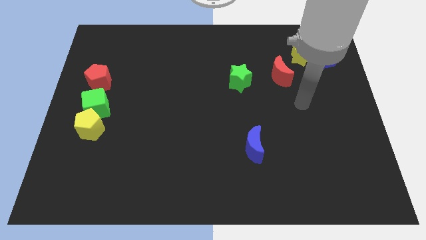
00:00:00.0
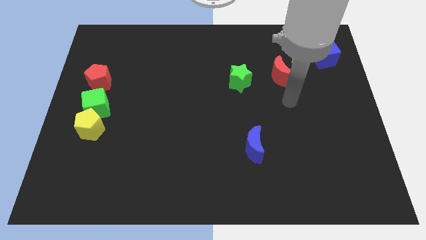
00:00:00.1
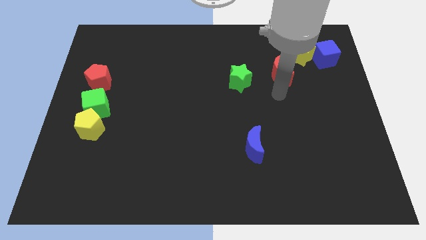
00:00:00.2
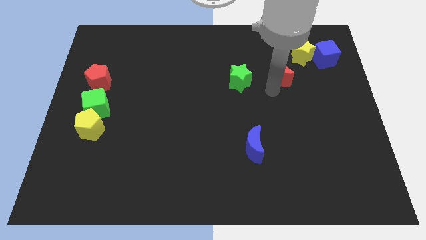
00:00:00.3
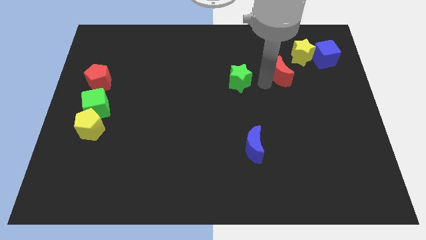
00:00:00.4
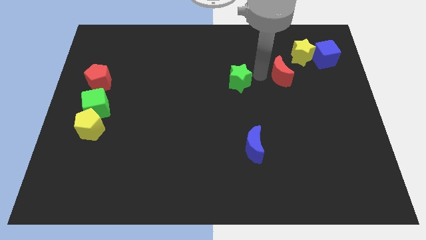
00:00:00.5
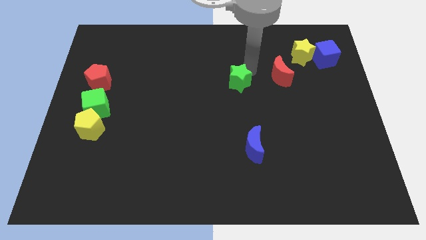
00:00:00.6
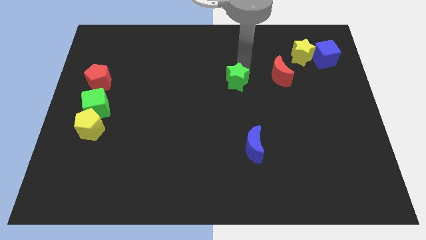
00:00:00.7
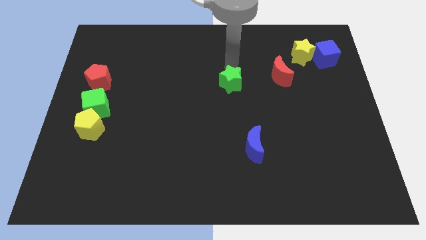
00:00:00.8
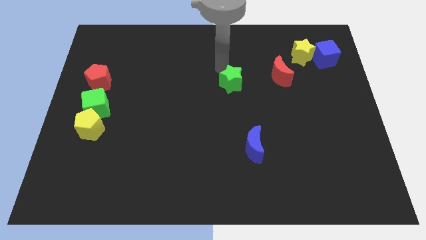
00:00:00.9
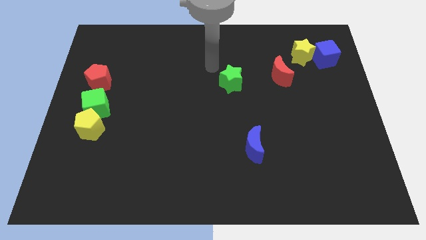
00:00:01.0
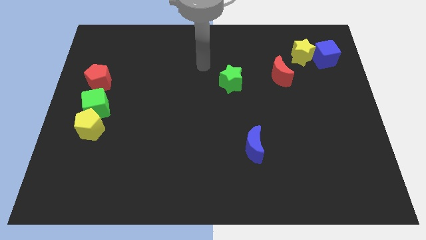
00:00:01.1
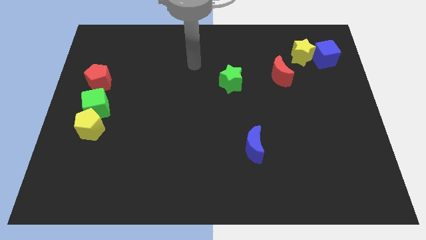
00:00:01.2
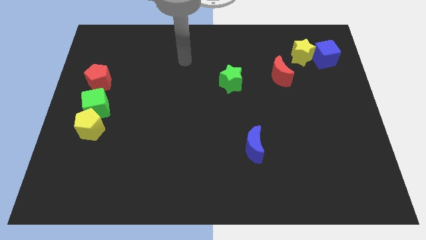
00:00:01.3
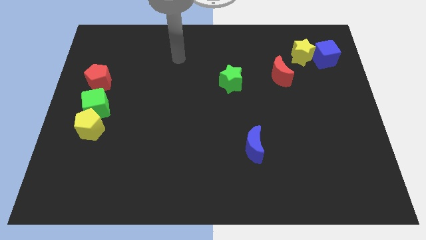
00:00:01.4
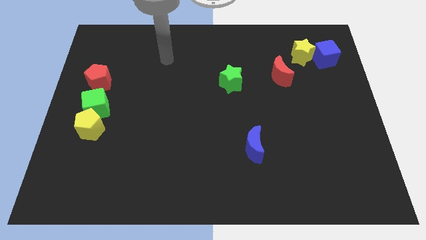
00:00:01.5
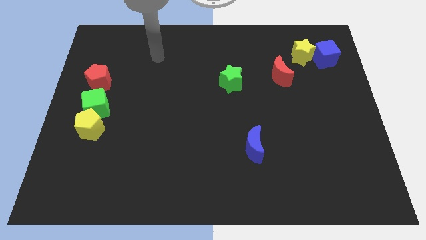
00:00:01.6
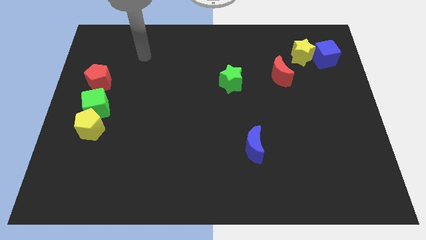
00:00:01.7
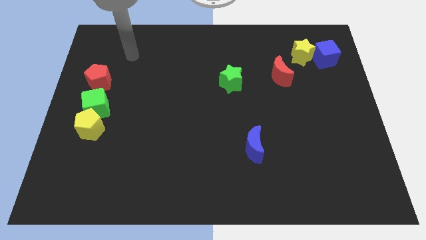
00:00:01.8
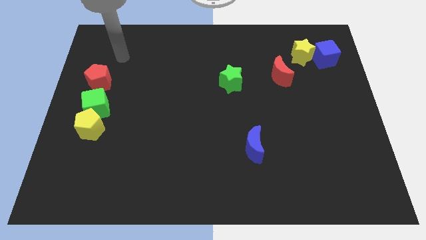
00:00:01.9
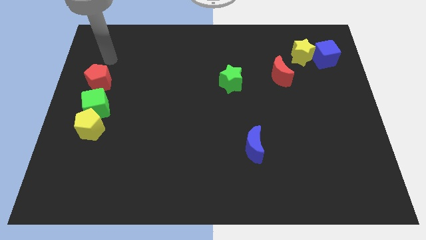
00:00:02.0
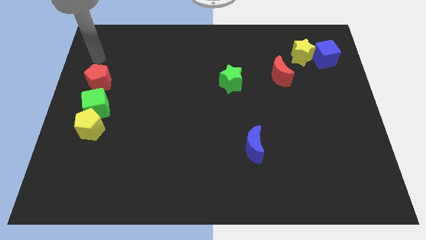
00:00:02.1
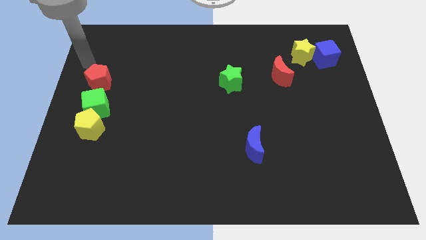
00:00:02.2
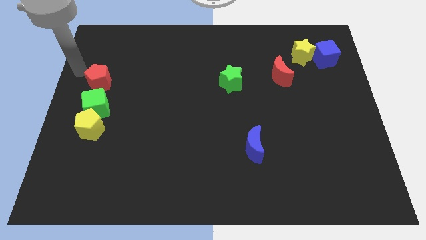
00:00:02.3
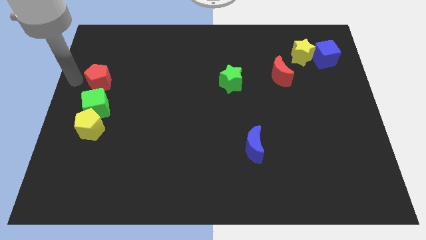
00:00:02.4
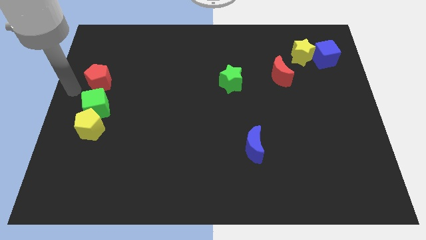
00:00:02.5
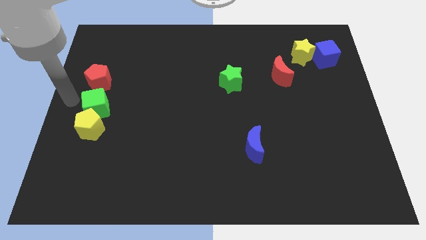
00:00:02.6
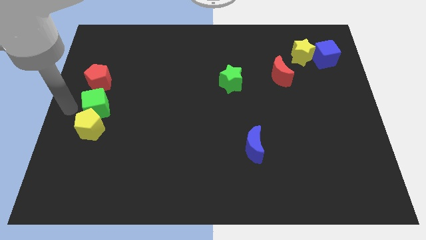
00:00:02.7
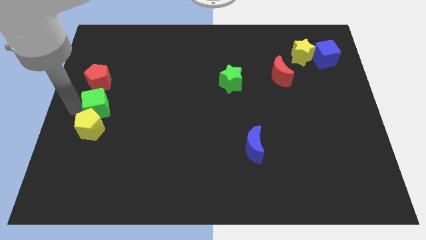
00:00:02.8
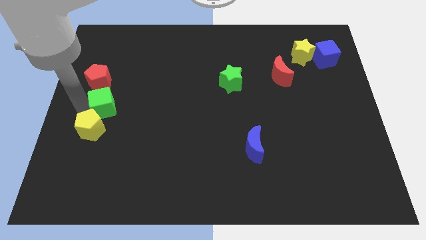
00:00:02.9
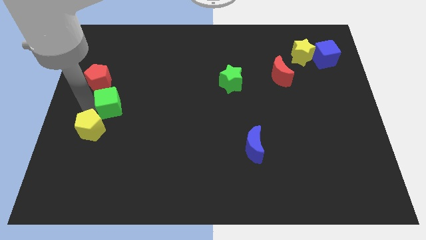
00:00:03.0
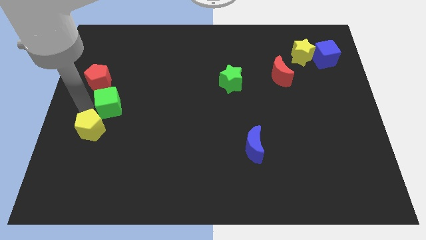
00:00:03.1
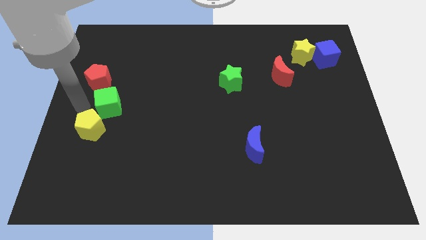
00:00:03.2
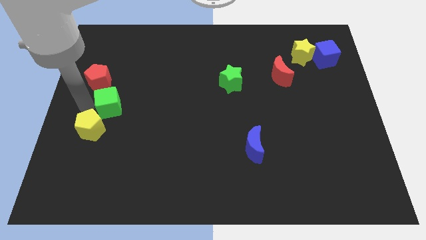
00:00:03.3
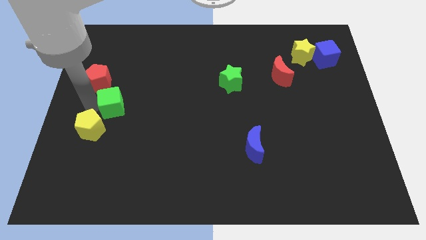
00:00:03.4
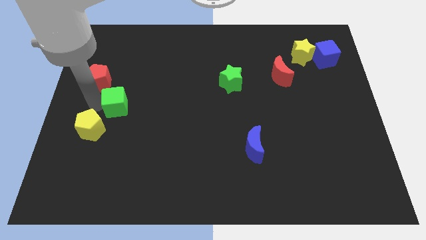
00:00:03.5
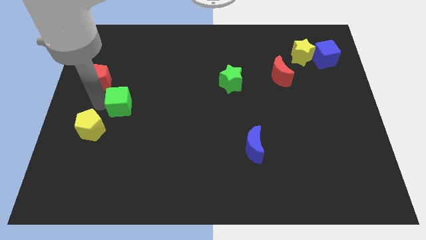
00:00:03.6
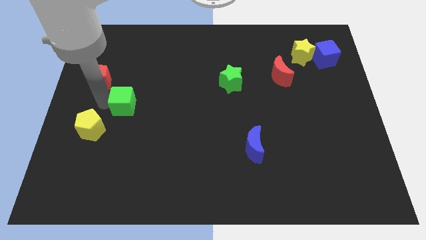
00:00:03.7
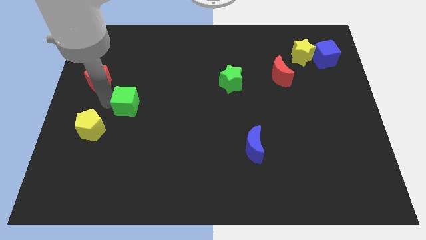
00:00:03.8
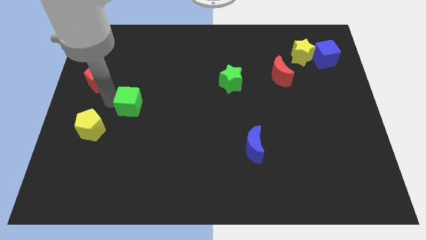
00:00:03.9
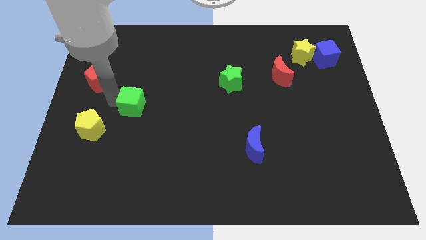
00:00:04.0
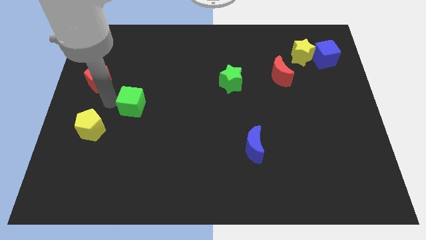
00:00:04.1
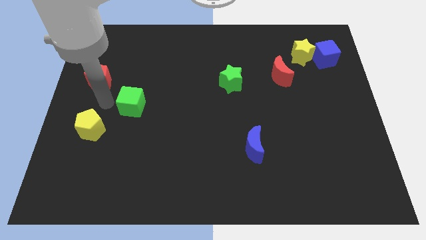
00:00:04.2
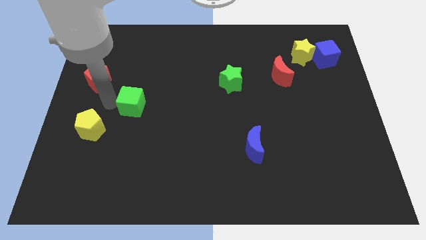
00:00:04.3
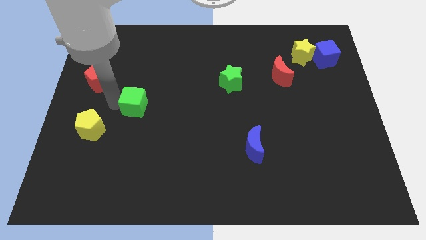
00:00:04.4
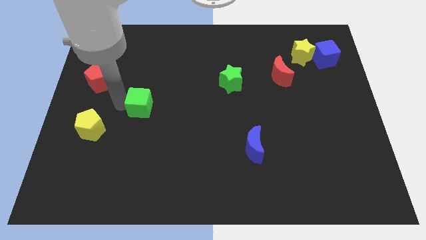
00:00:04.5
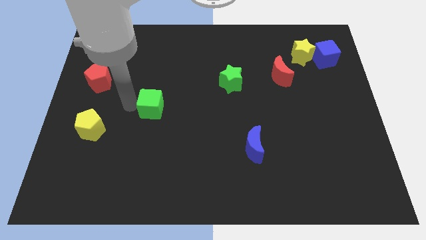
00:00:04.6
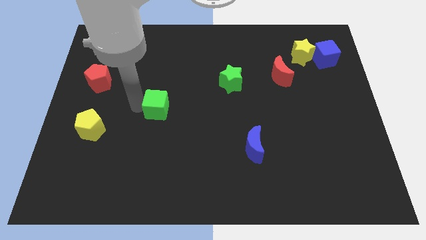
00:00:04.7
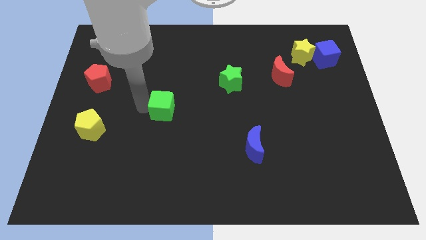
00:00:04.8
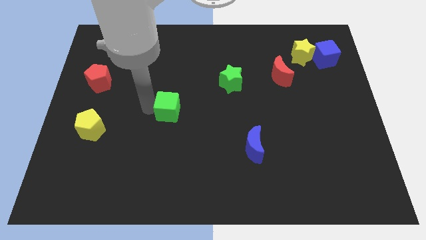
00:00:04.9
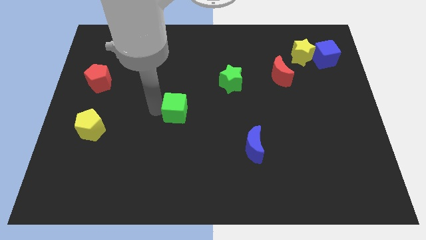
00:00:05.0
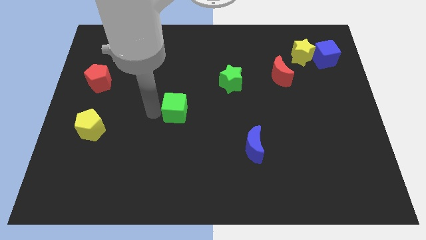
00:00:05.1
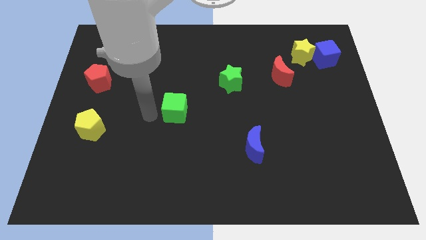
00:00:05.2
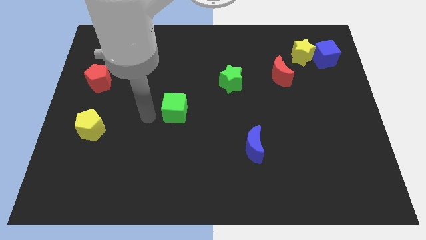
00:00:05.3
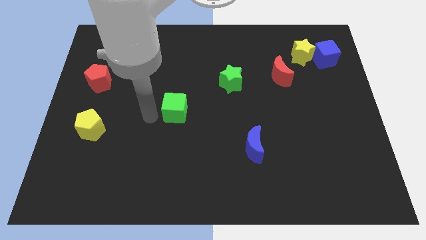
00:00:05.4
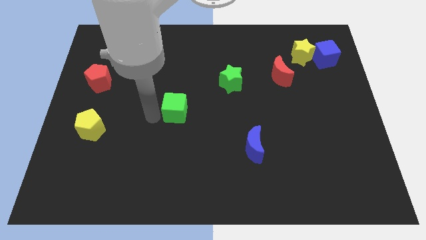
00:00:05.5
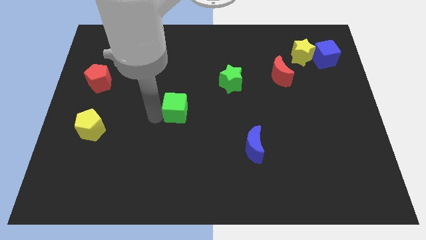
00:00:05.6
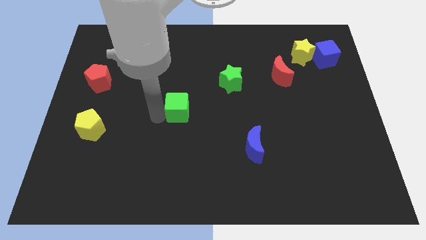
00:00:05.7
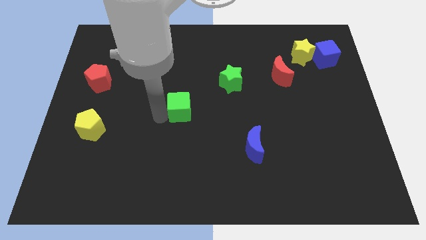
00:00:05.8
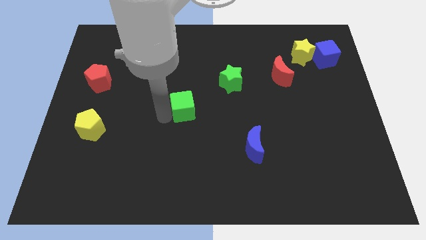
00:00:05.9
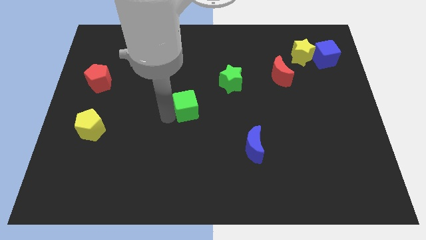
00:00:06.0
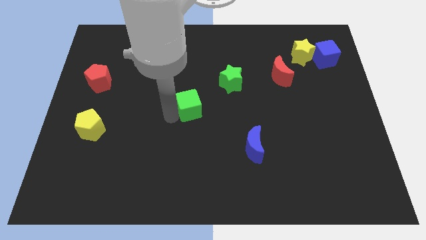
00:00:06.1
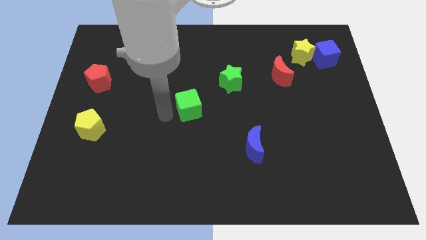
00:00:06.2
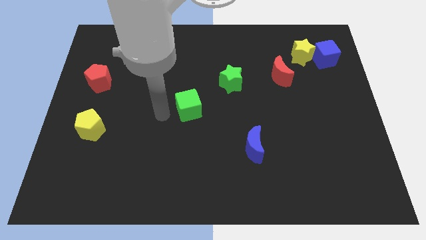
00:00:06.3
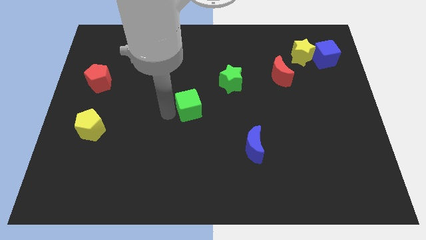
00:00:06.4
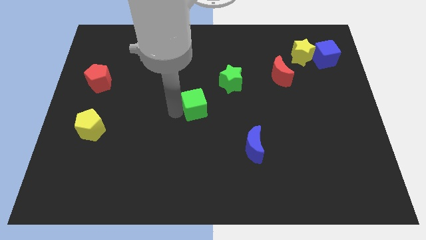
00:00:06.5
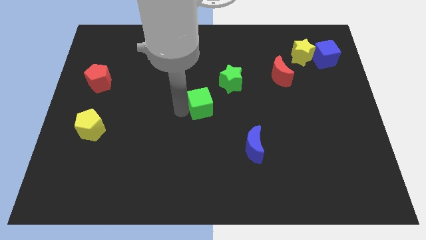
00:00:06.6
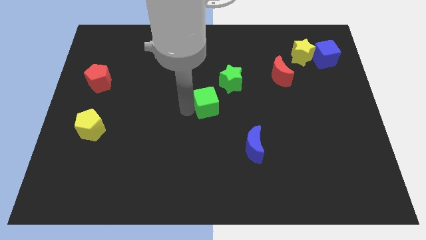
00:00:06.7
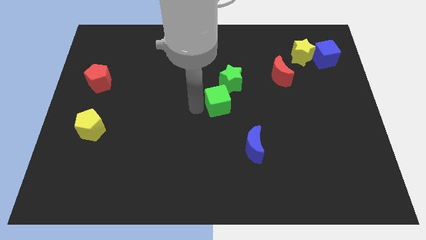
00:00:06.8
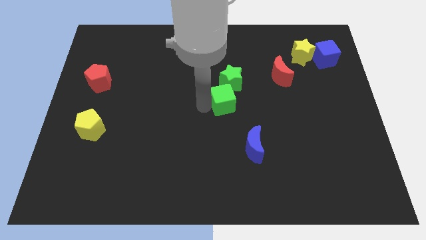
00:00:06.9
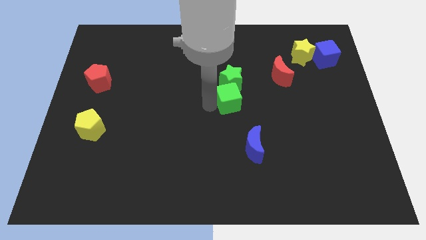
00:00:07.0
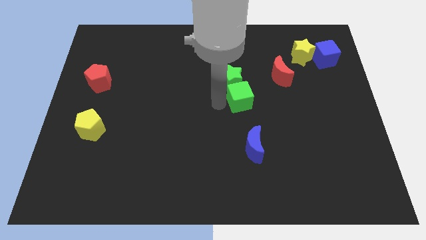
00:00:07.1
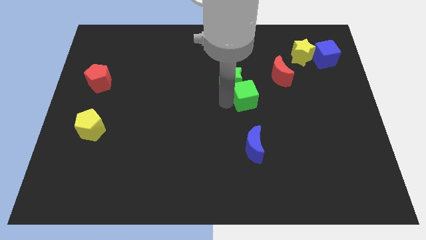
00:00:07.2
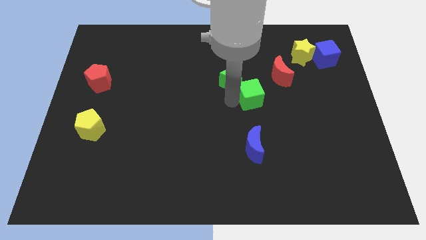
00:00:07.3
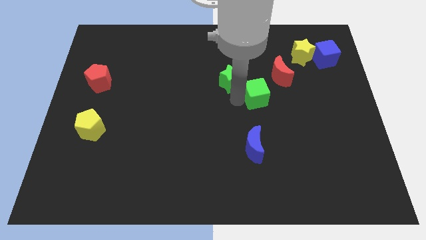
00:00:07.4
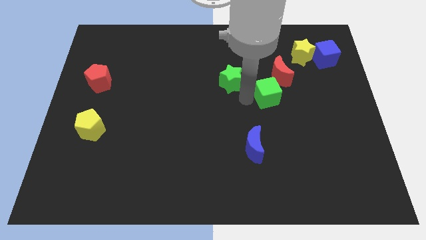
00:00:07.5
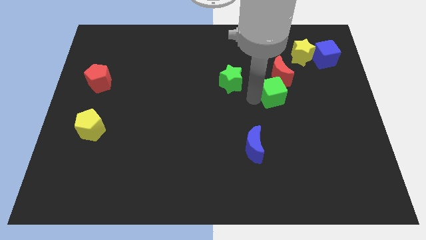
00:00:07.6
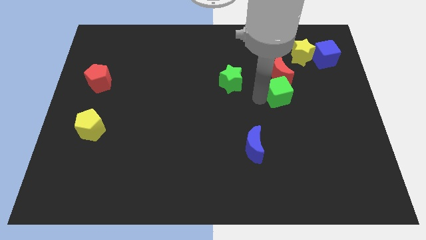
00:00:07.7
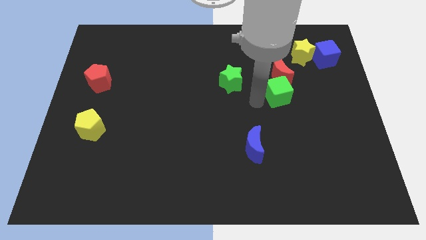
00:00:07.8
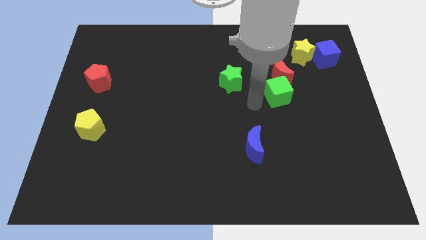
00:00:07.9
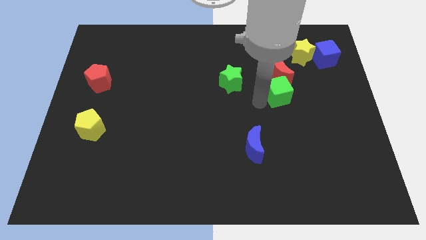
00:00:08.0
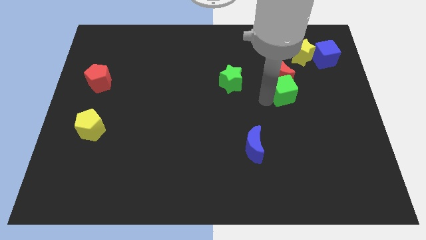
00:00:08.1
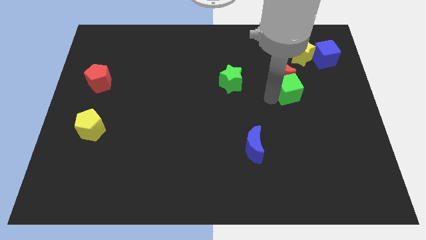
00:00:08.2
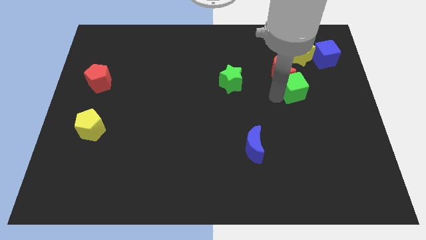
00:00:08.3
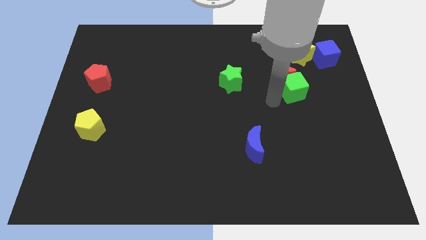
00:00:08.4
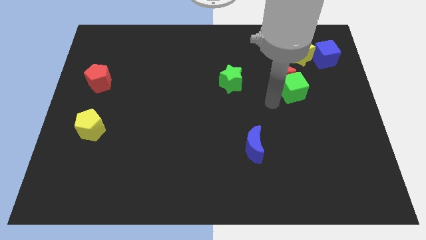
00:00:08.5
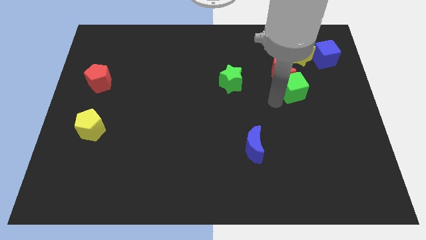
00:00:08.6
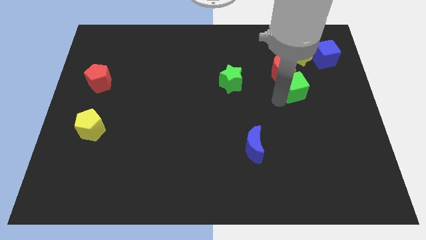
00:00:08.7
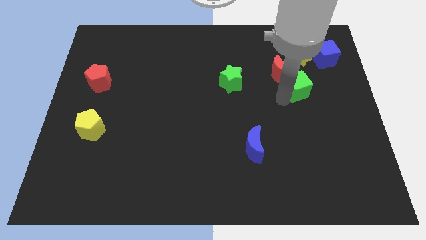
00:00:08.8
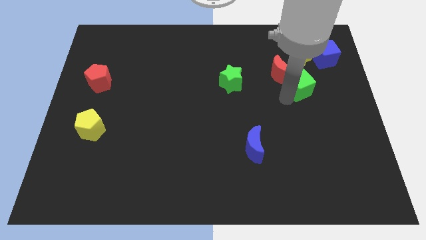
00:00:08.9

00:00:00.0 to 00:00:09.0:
put the green cube just right of the red moon
